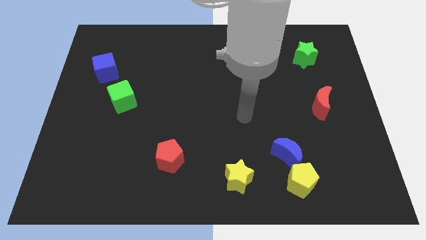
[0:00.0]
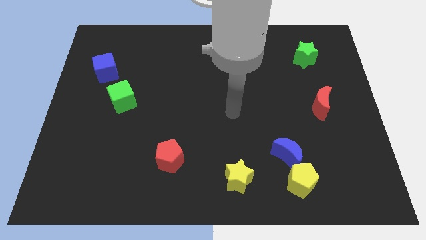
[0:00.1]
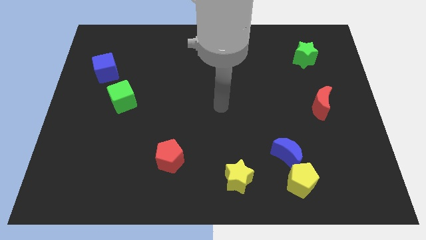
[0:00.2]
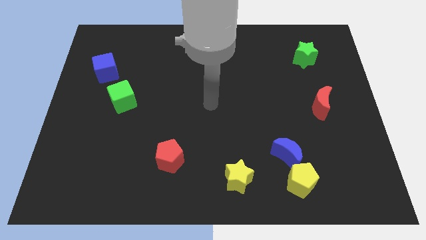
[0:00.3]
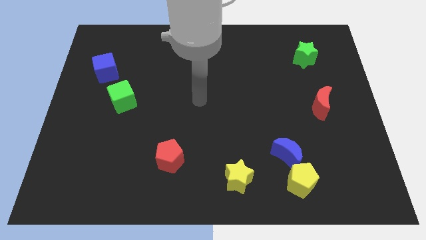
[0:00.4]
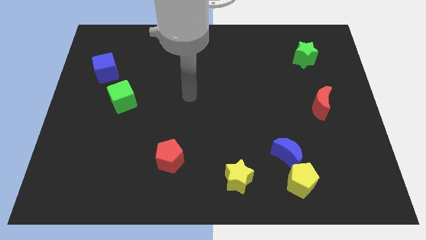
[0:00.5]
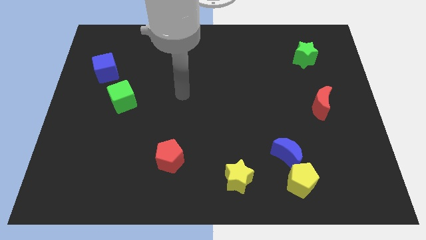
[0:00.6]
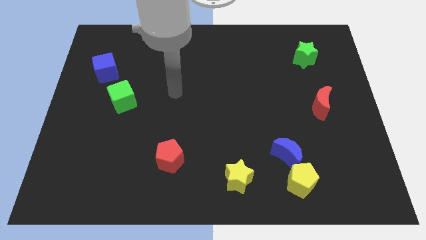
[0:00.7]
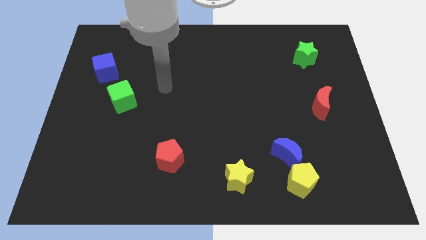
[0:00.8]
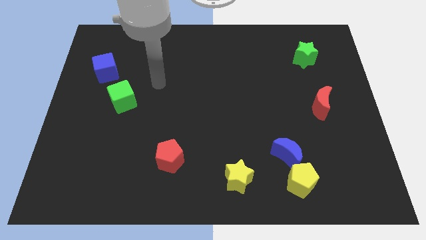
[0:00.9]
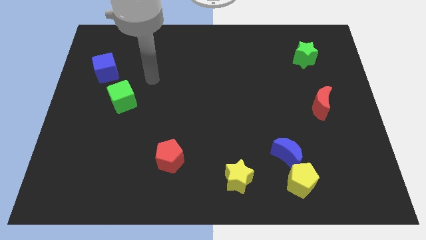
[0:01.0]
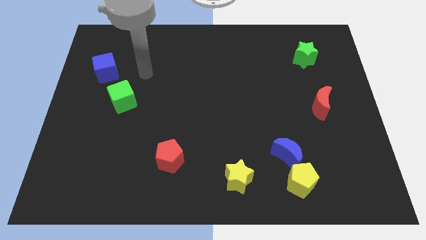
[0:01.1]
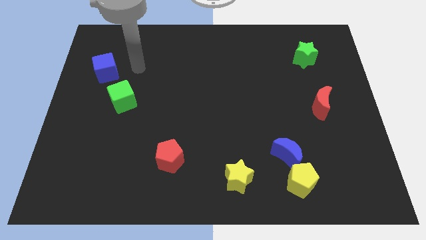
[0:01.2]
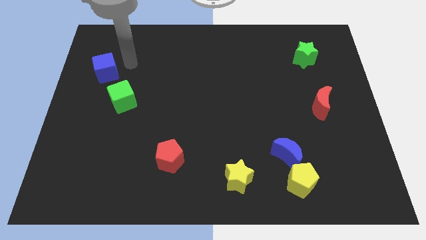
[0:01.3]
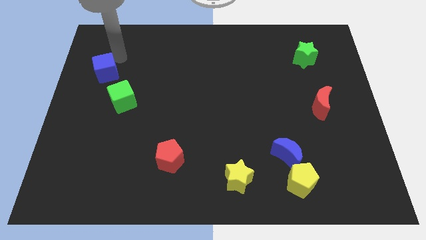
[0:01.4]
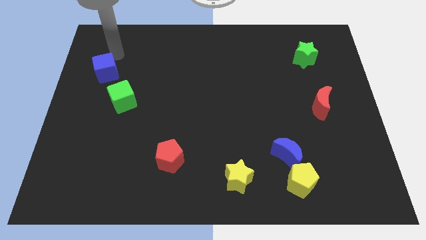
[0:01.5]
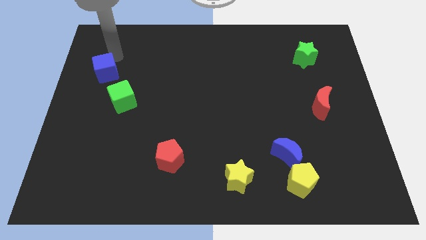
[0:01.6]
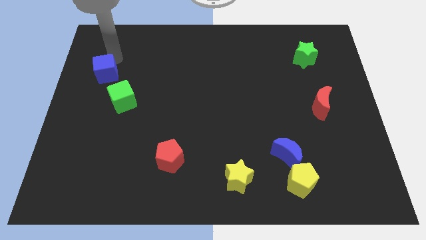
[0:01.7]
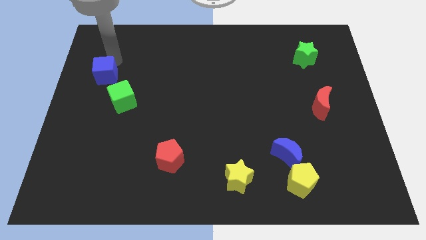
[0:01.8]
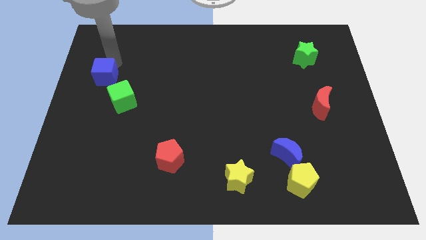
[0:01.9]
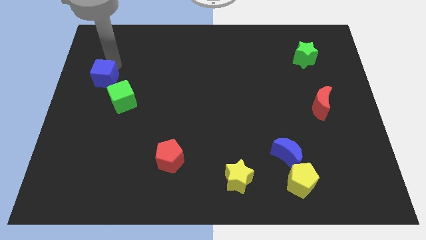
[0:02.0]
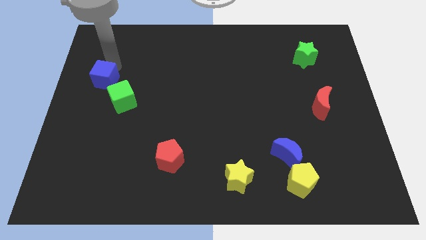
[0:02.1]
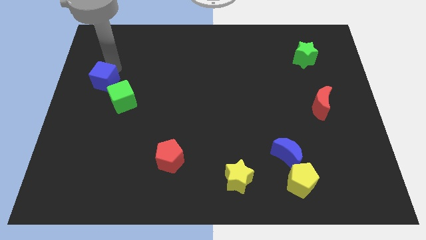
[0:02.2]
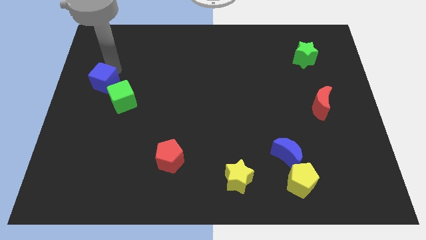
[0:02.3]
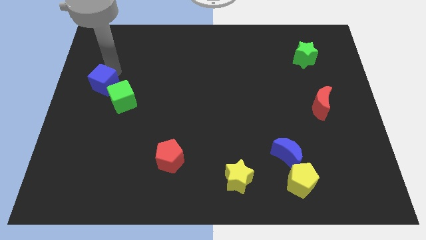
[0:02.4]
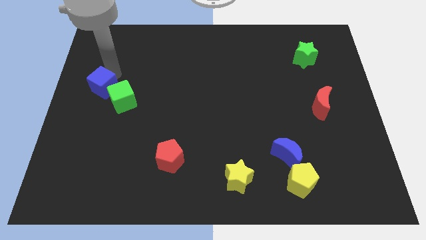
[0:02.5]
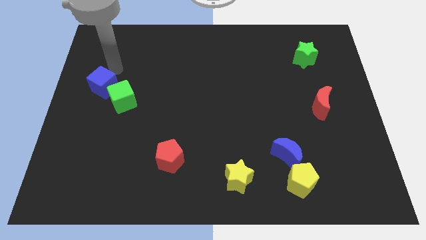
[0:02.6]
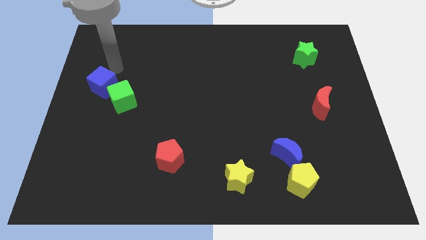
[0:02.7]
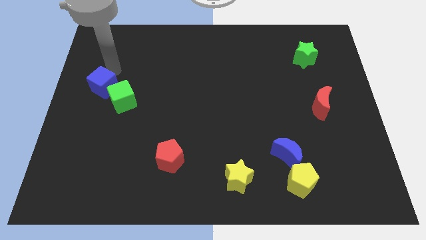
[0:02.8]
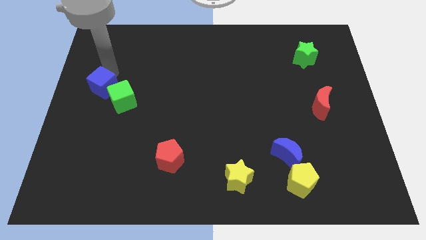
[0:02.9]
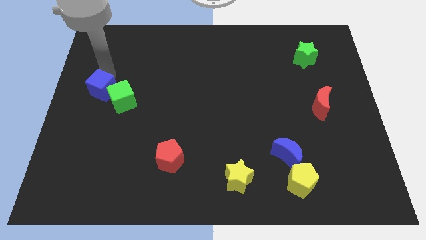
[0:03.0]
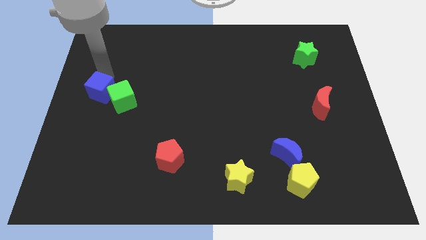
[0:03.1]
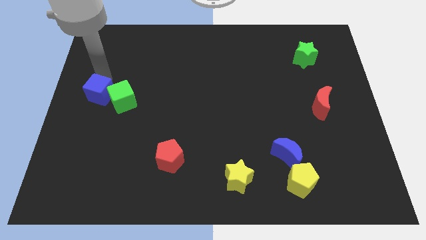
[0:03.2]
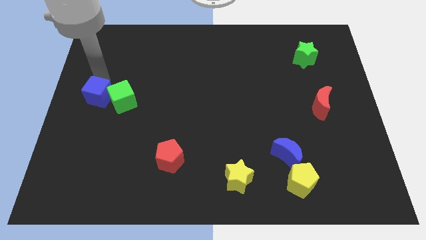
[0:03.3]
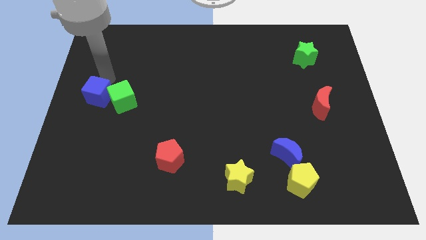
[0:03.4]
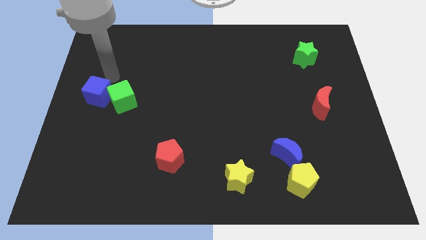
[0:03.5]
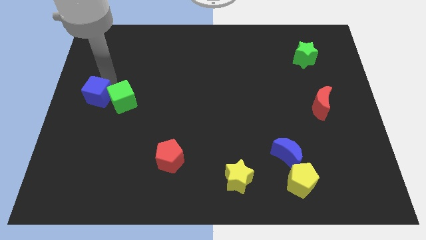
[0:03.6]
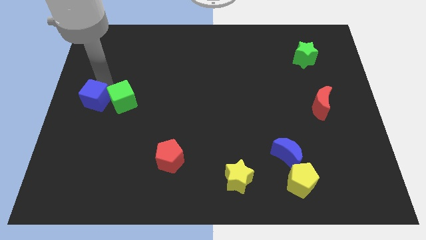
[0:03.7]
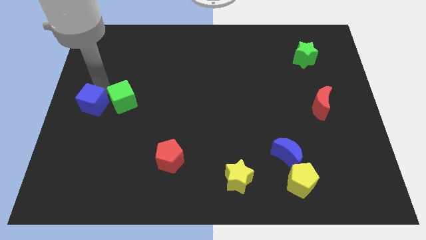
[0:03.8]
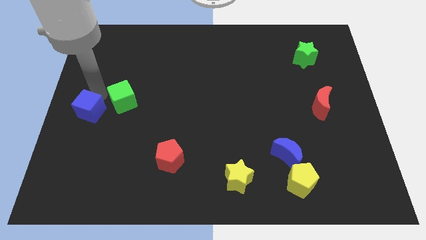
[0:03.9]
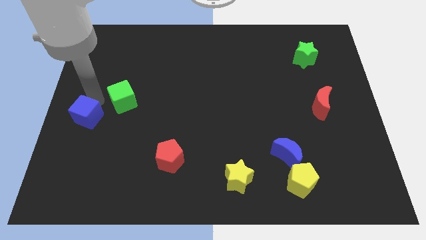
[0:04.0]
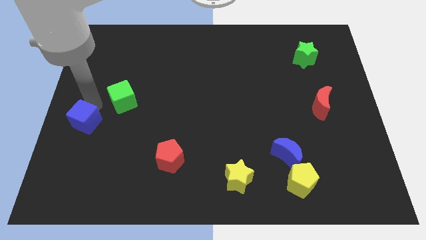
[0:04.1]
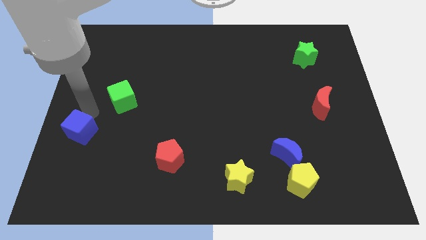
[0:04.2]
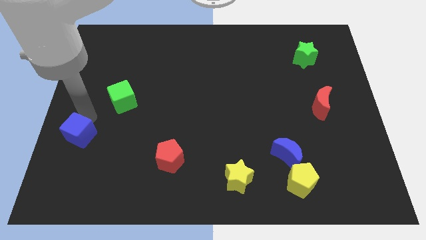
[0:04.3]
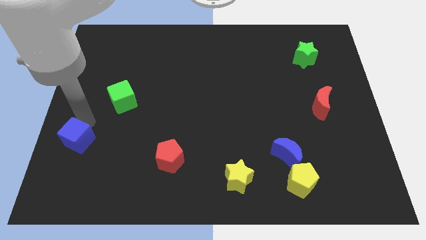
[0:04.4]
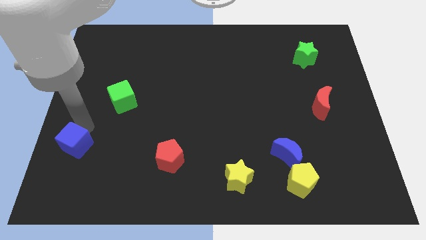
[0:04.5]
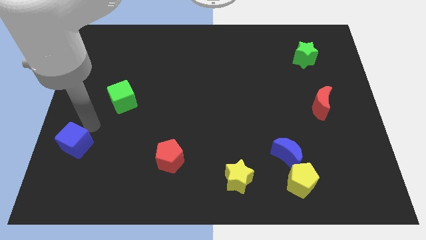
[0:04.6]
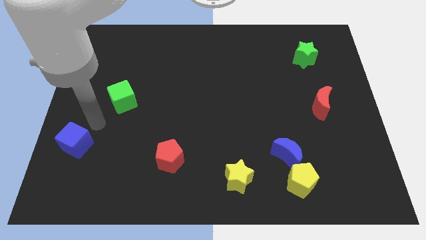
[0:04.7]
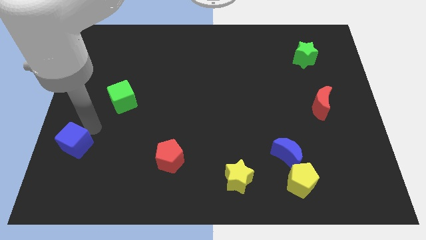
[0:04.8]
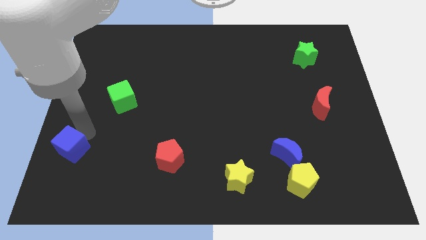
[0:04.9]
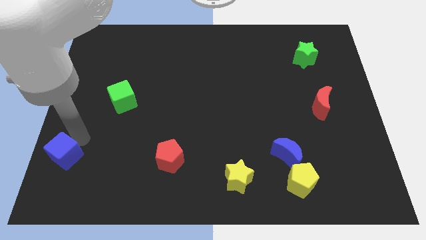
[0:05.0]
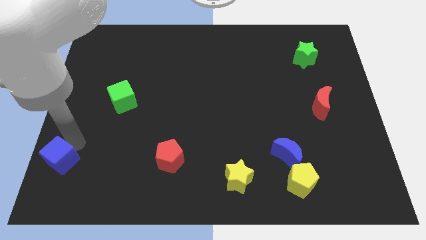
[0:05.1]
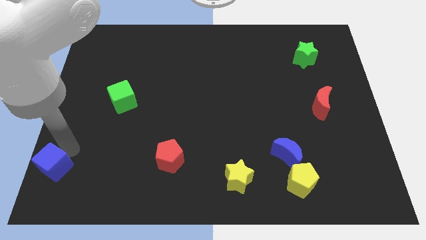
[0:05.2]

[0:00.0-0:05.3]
push the blue cube to the bottom left

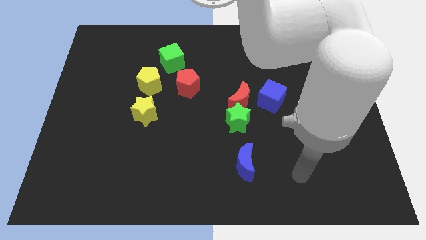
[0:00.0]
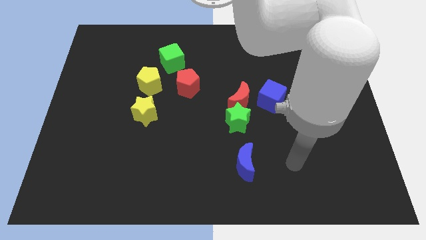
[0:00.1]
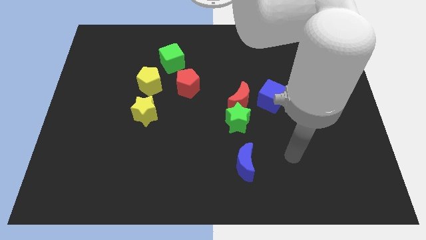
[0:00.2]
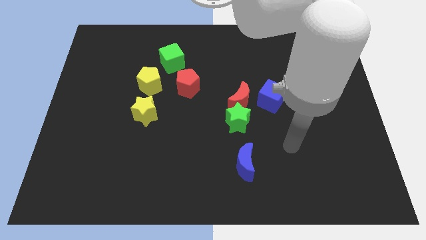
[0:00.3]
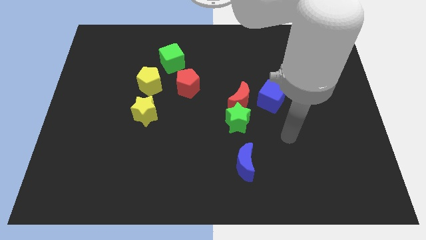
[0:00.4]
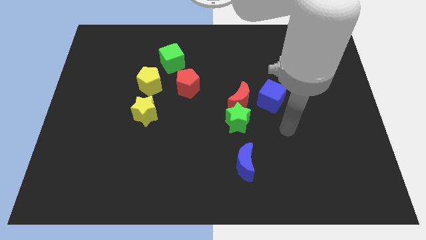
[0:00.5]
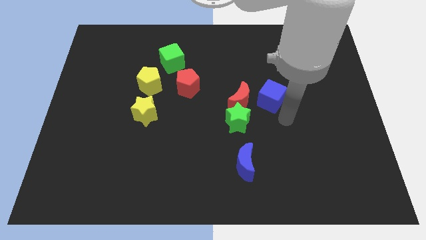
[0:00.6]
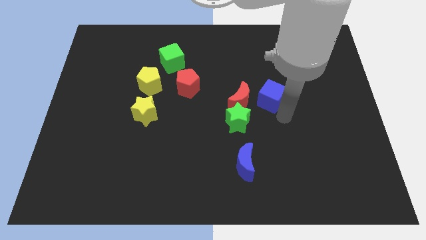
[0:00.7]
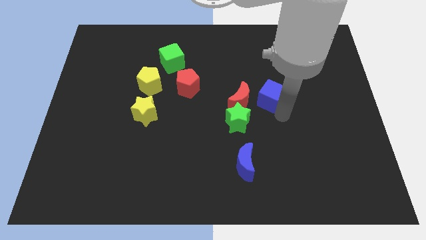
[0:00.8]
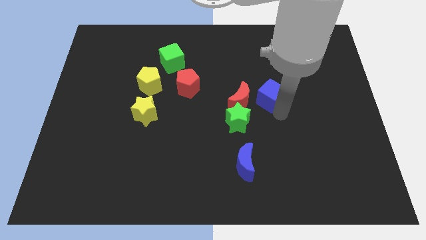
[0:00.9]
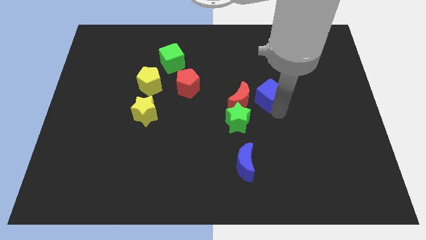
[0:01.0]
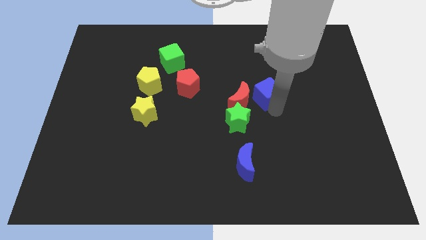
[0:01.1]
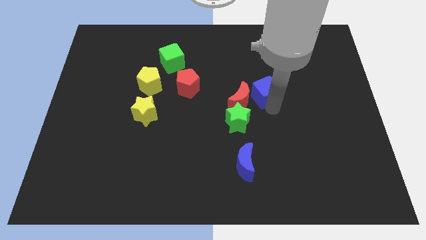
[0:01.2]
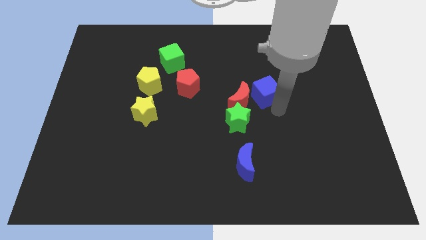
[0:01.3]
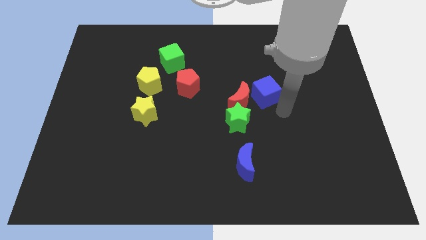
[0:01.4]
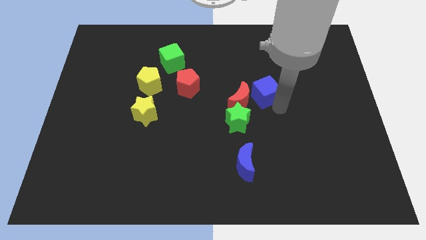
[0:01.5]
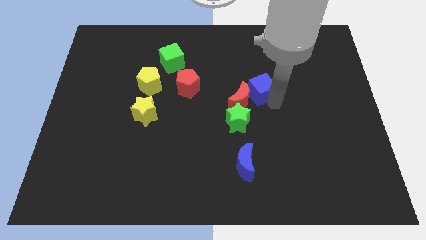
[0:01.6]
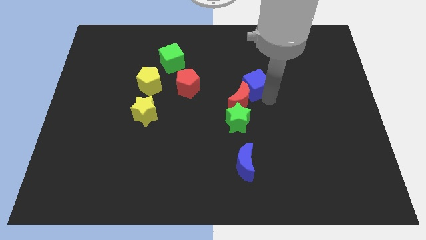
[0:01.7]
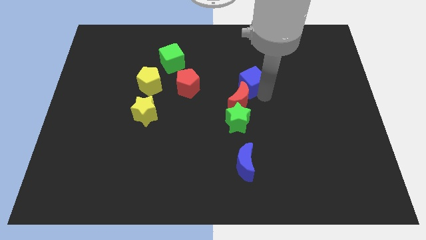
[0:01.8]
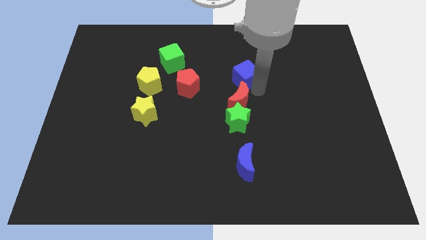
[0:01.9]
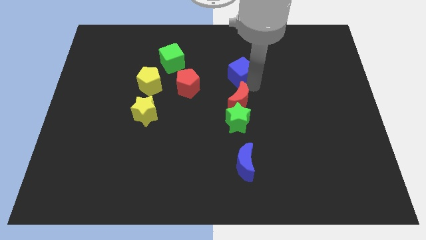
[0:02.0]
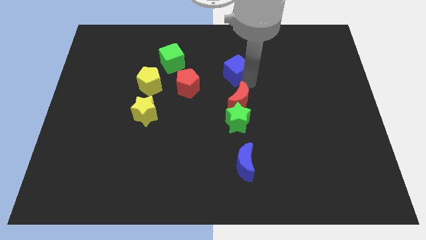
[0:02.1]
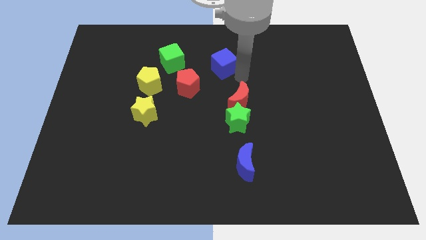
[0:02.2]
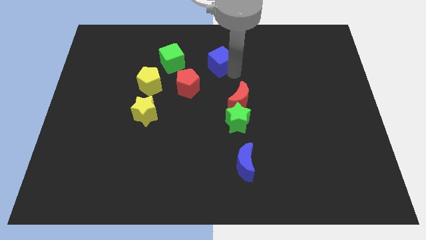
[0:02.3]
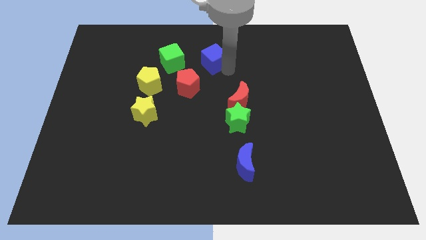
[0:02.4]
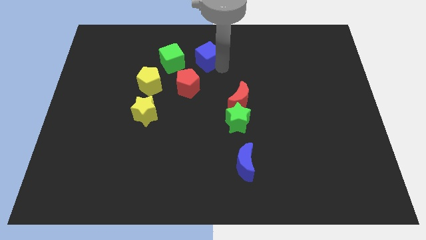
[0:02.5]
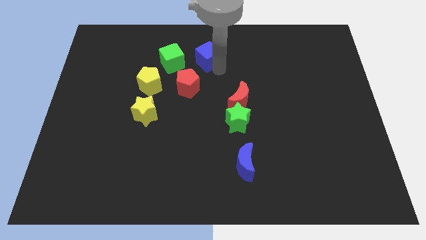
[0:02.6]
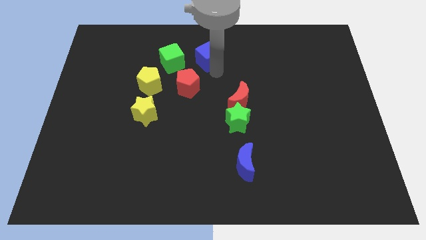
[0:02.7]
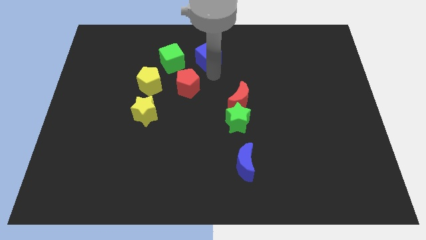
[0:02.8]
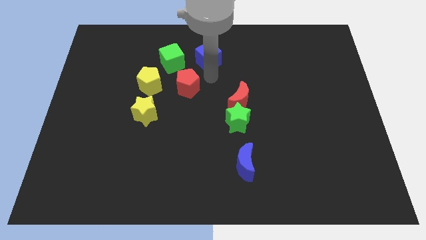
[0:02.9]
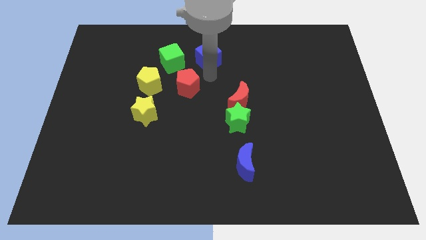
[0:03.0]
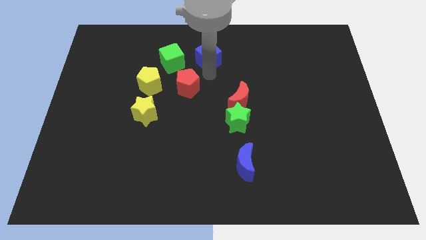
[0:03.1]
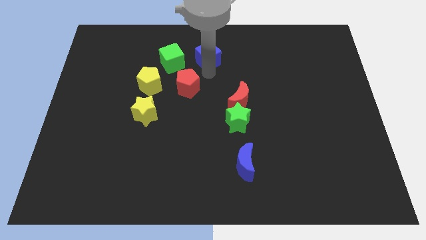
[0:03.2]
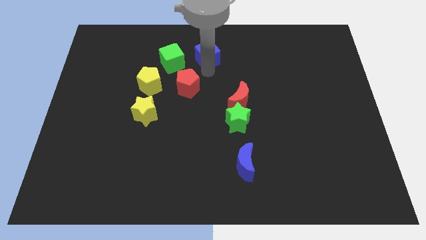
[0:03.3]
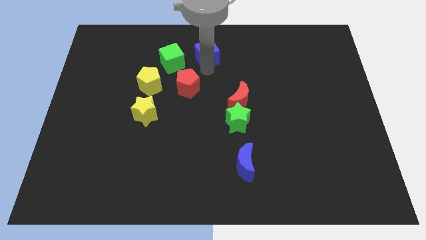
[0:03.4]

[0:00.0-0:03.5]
push the blue cube to the top
